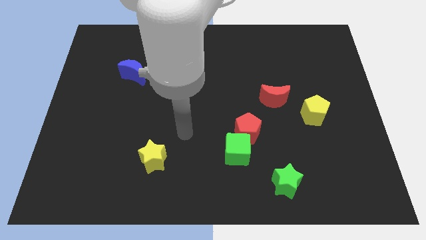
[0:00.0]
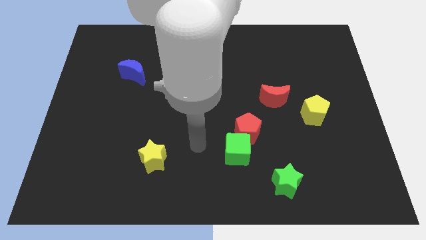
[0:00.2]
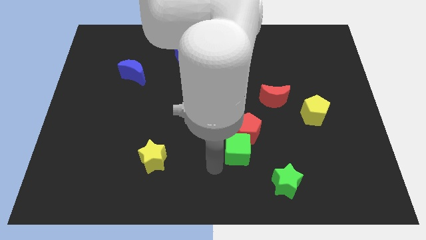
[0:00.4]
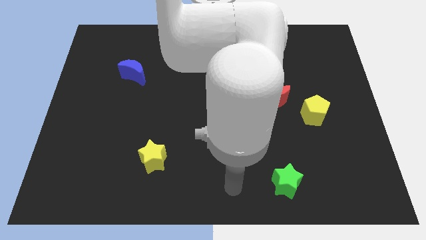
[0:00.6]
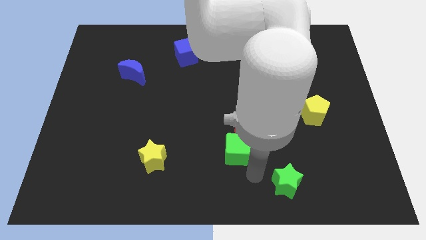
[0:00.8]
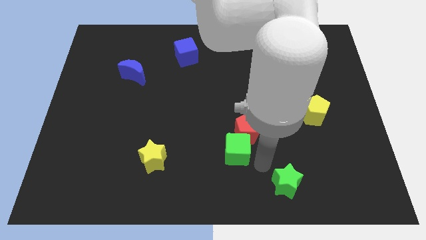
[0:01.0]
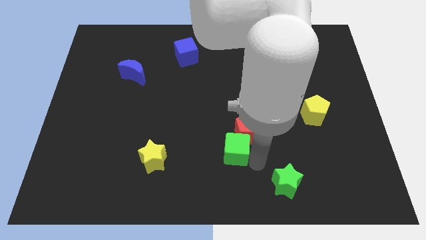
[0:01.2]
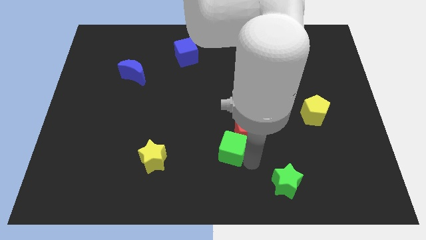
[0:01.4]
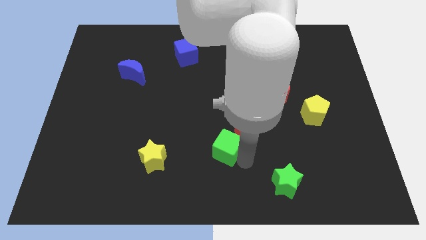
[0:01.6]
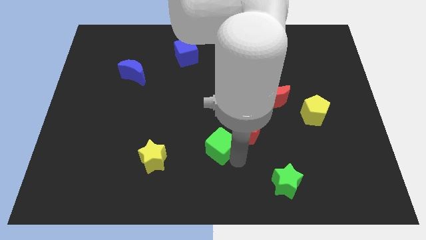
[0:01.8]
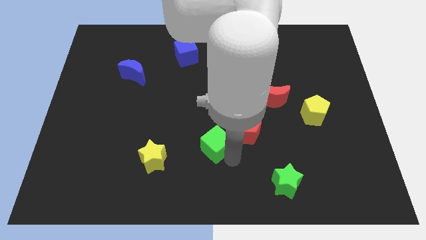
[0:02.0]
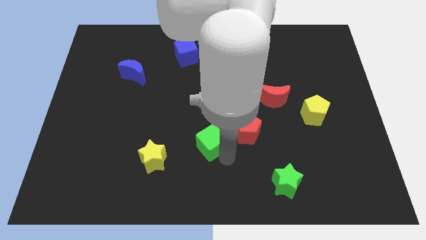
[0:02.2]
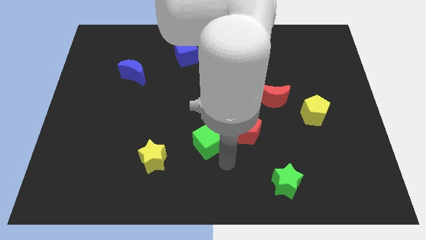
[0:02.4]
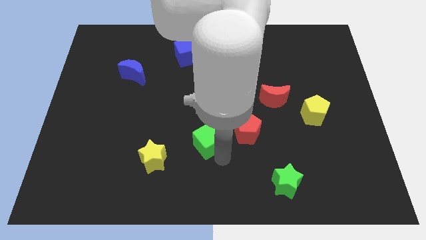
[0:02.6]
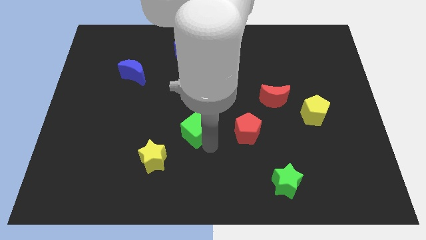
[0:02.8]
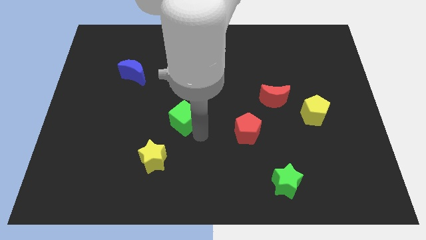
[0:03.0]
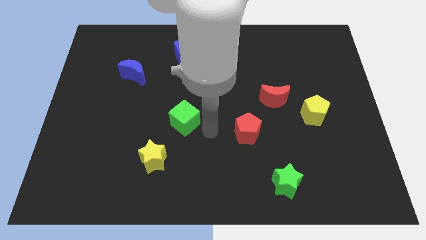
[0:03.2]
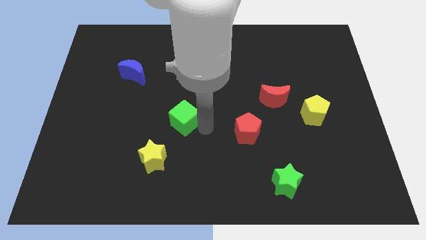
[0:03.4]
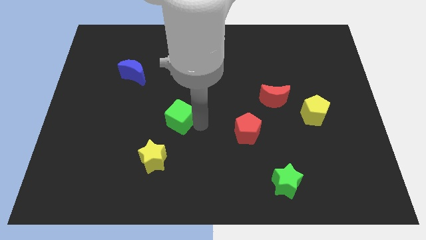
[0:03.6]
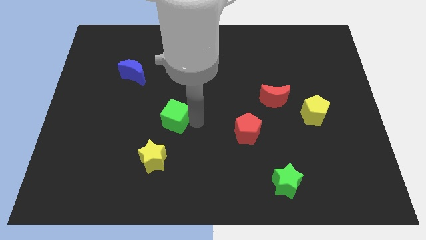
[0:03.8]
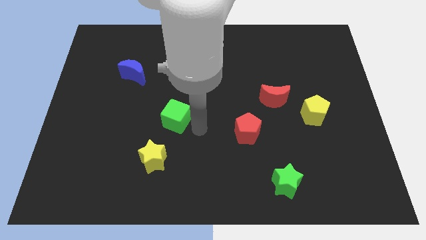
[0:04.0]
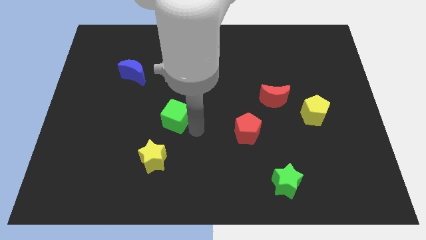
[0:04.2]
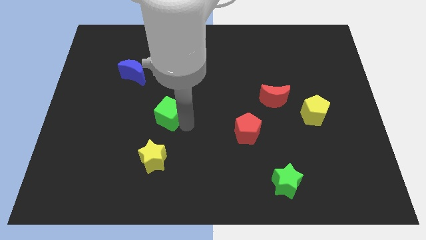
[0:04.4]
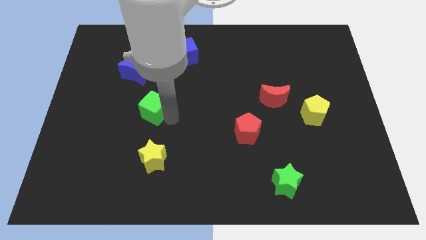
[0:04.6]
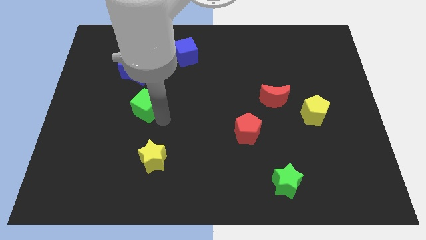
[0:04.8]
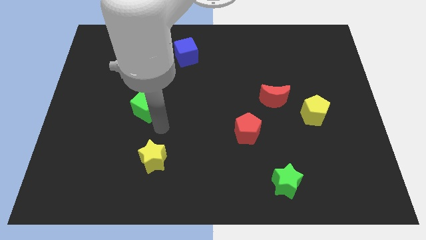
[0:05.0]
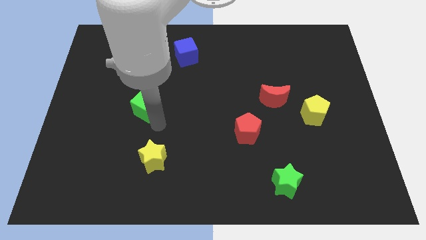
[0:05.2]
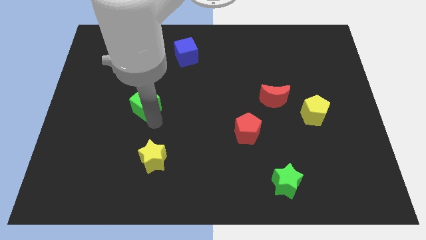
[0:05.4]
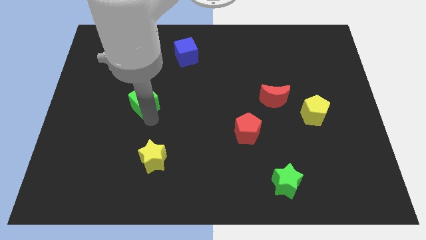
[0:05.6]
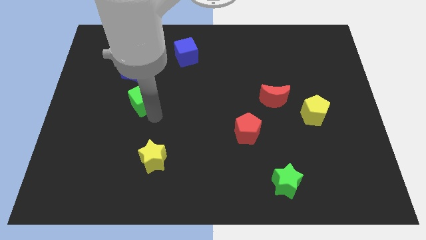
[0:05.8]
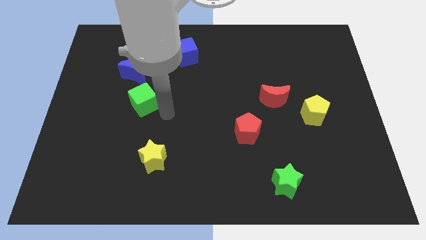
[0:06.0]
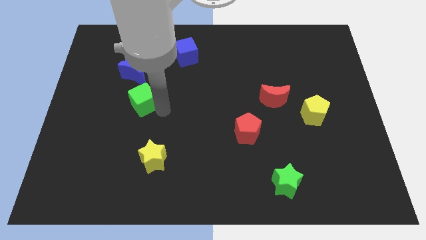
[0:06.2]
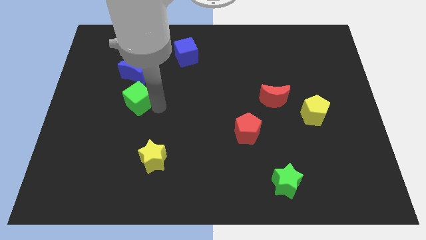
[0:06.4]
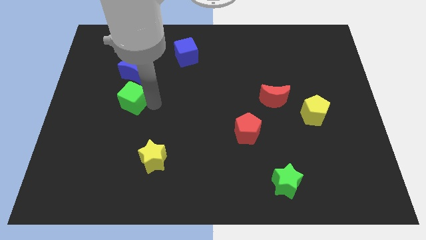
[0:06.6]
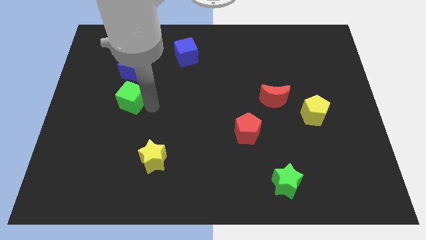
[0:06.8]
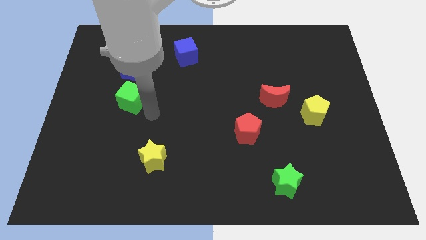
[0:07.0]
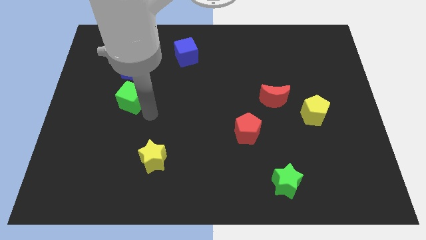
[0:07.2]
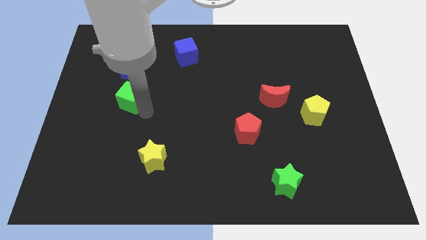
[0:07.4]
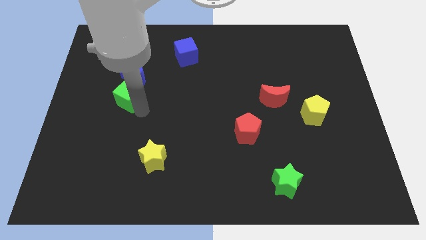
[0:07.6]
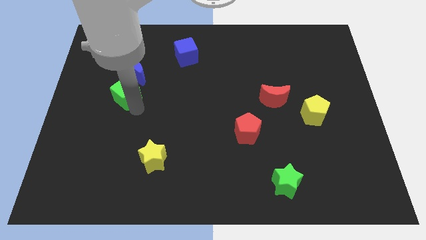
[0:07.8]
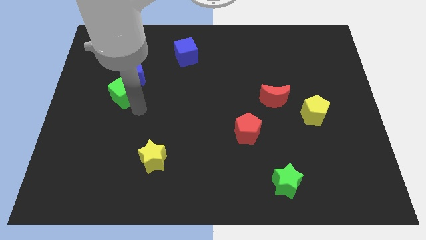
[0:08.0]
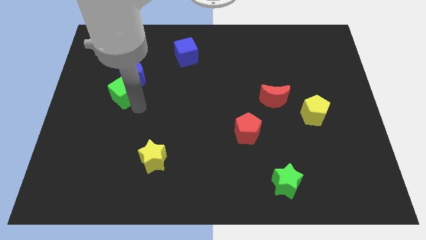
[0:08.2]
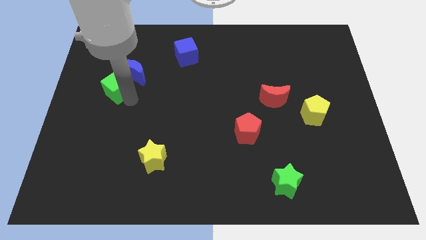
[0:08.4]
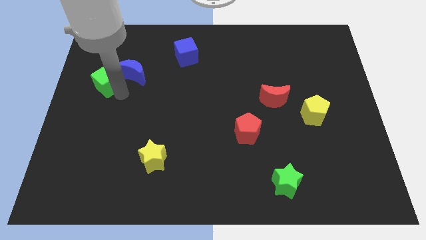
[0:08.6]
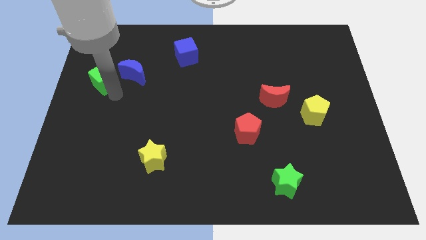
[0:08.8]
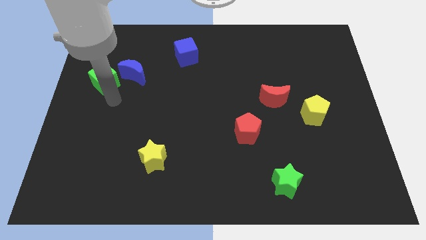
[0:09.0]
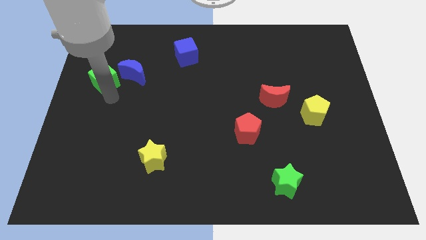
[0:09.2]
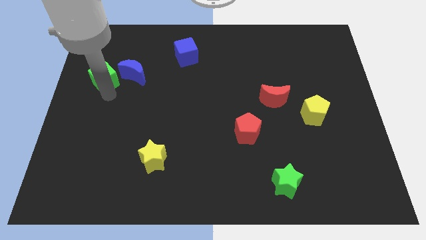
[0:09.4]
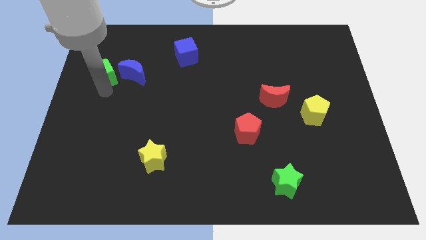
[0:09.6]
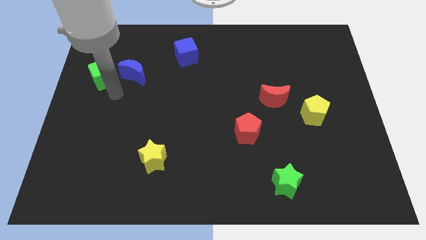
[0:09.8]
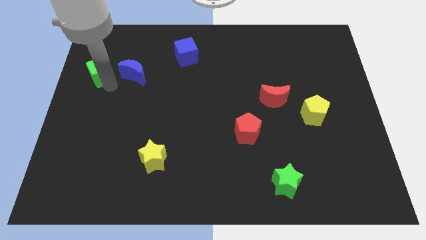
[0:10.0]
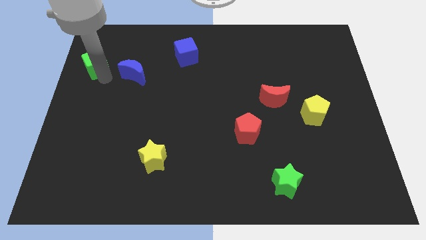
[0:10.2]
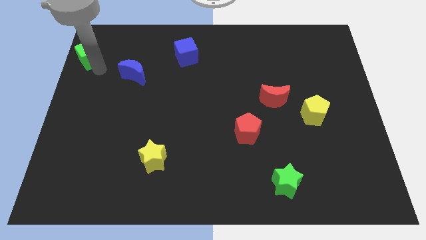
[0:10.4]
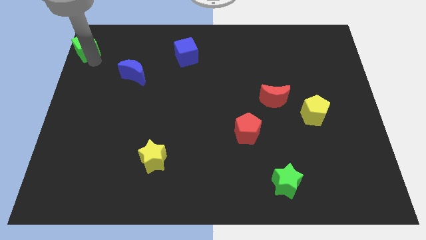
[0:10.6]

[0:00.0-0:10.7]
move the green cube to the top left of the board

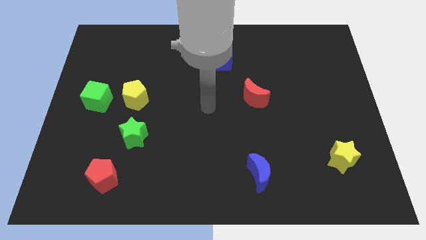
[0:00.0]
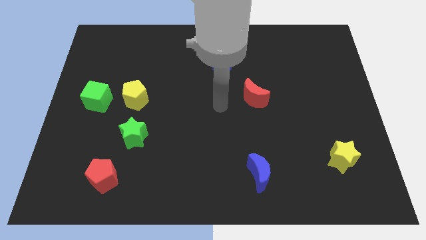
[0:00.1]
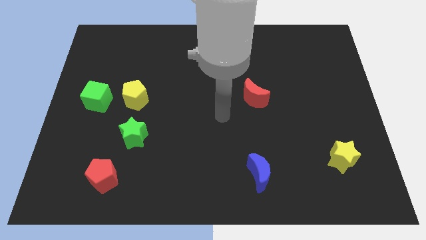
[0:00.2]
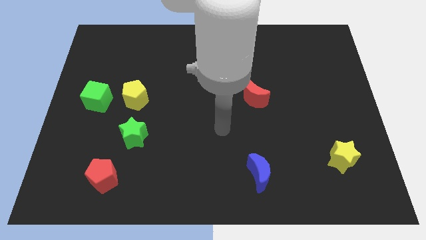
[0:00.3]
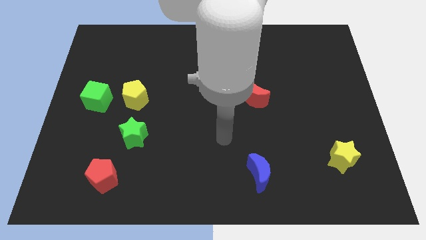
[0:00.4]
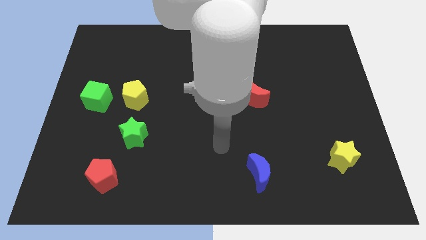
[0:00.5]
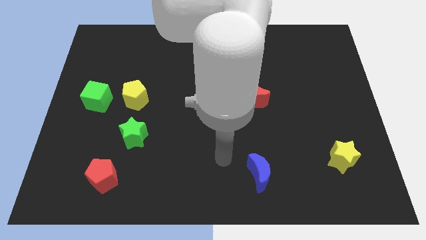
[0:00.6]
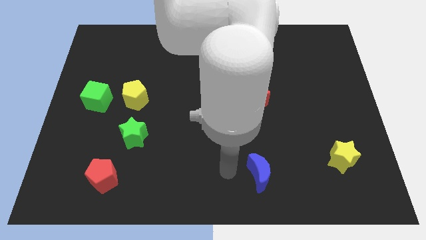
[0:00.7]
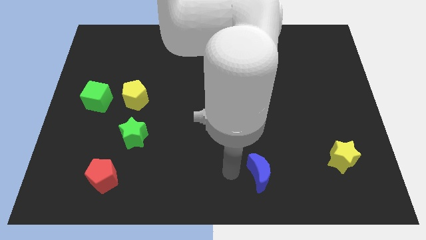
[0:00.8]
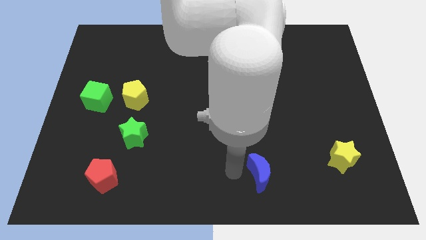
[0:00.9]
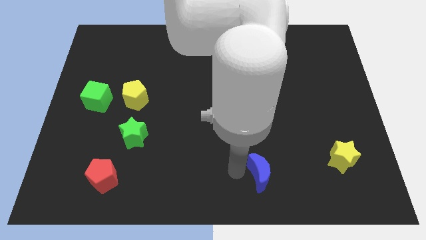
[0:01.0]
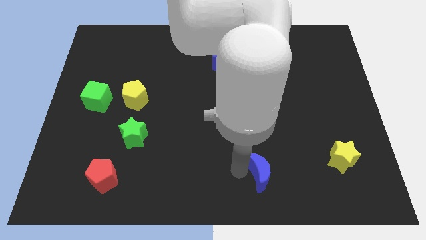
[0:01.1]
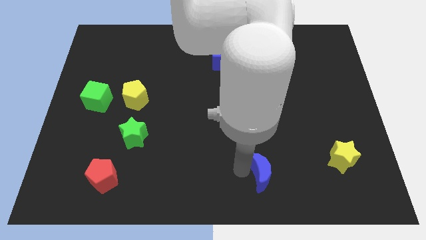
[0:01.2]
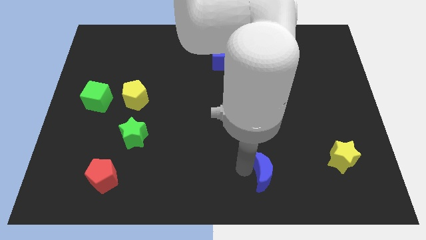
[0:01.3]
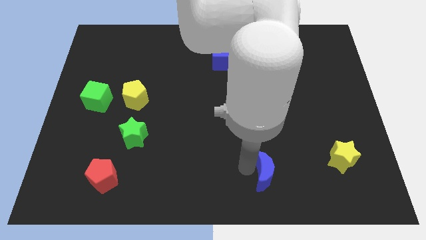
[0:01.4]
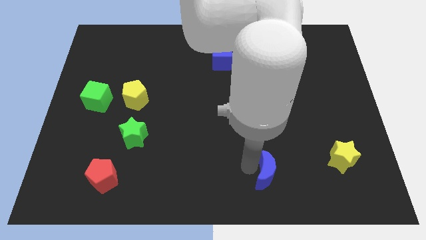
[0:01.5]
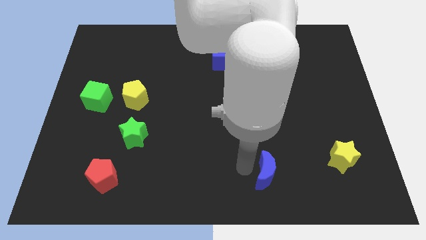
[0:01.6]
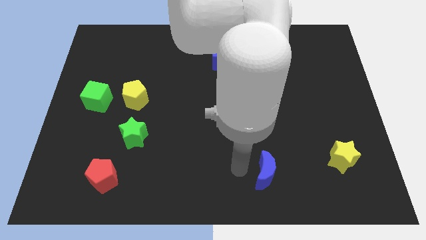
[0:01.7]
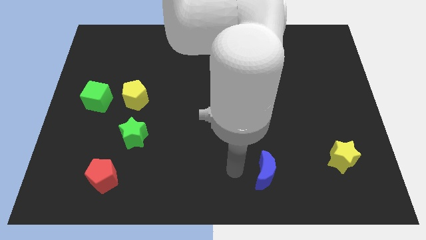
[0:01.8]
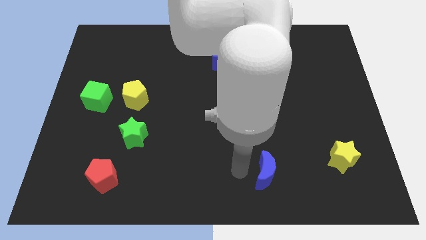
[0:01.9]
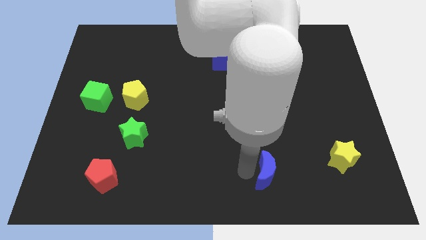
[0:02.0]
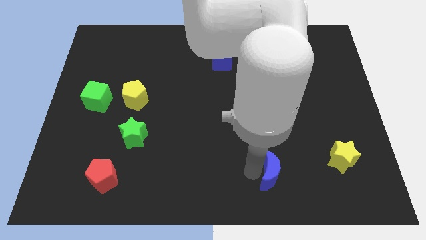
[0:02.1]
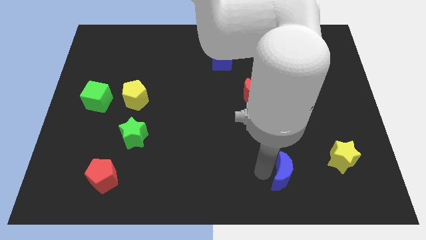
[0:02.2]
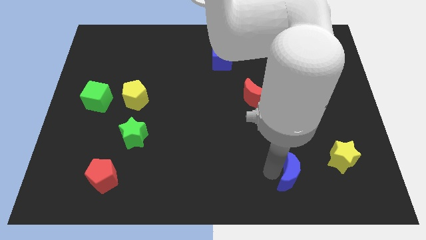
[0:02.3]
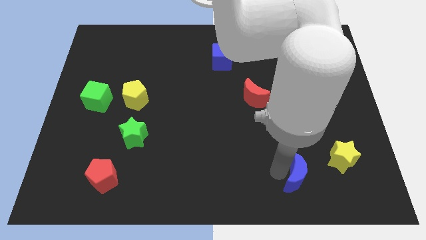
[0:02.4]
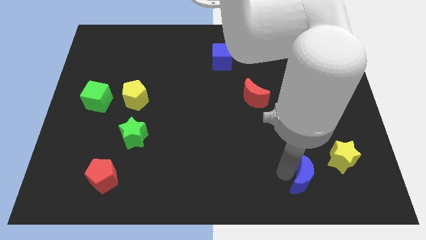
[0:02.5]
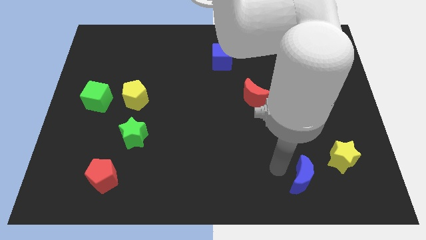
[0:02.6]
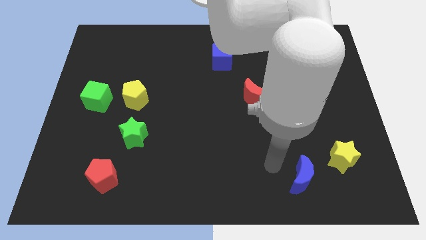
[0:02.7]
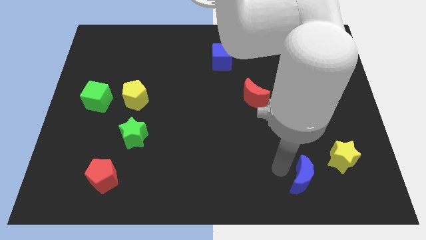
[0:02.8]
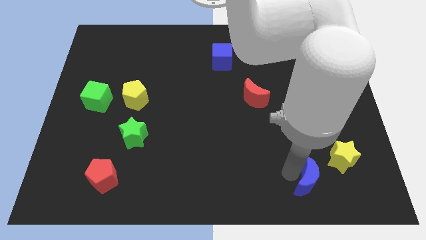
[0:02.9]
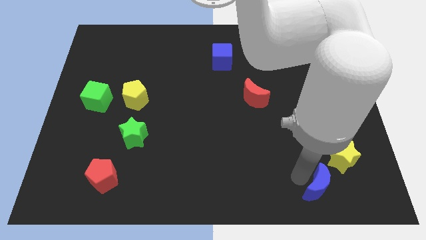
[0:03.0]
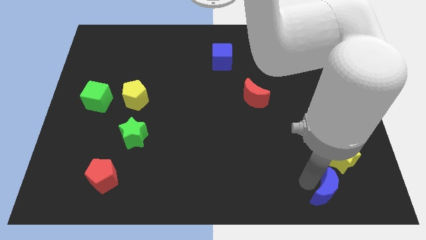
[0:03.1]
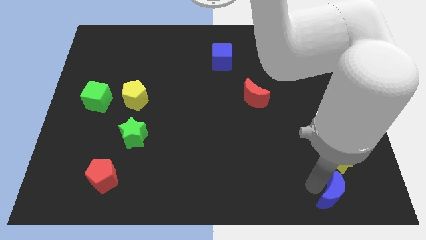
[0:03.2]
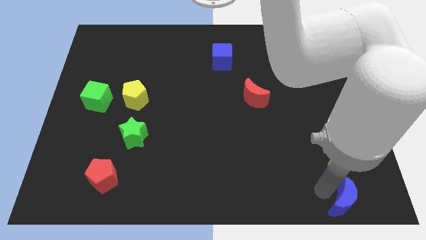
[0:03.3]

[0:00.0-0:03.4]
slide the blue moon to the bottom right of the board
